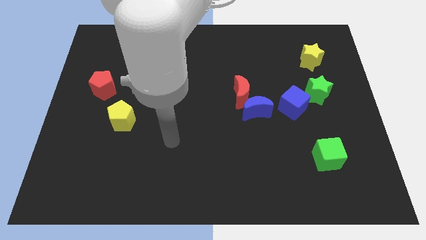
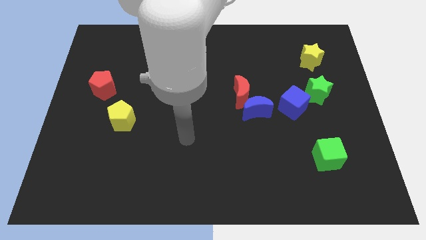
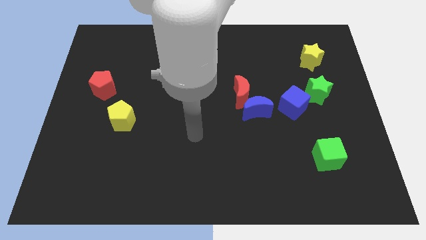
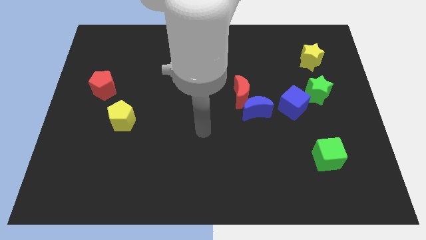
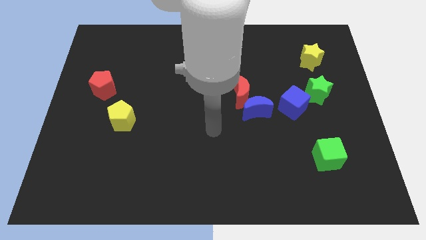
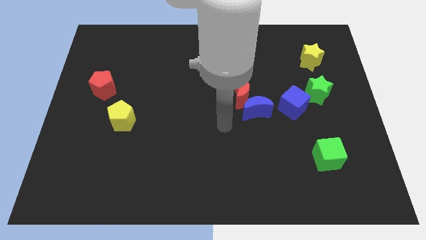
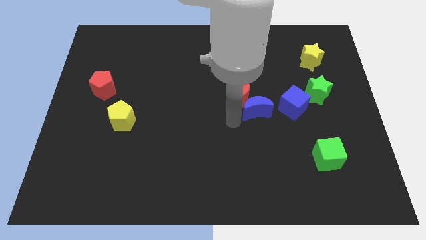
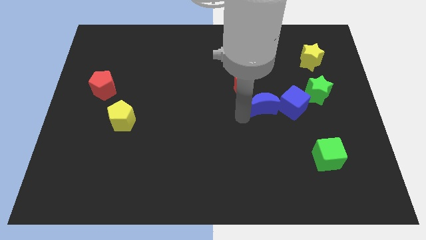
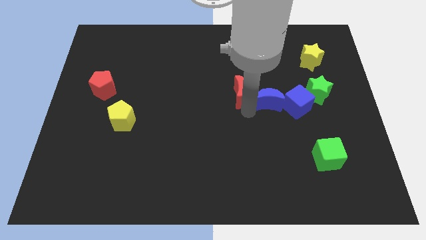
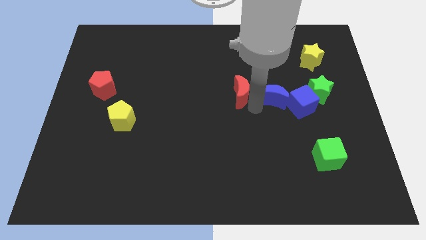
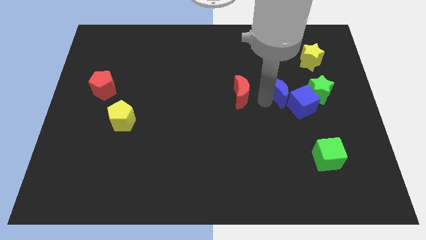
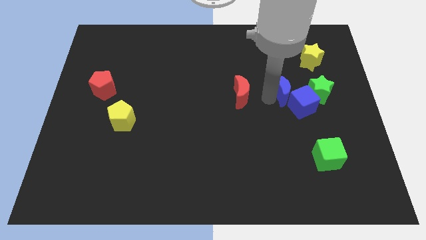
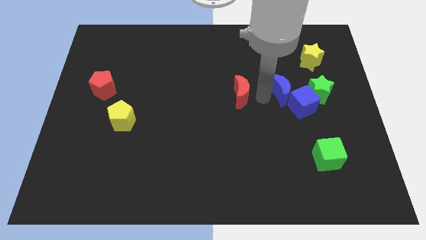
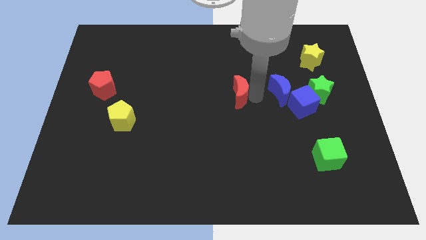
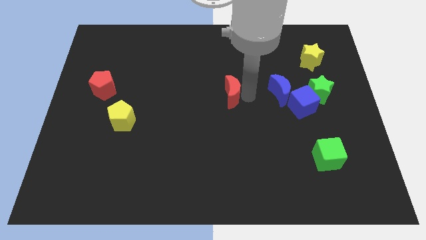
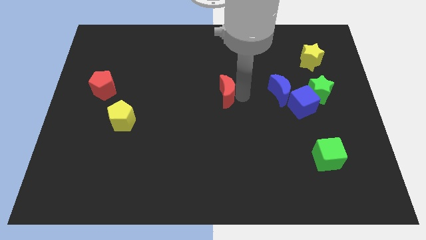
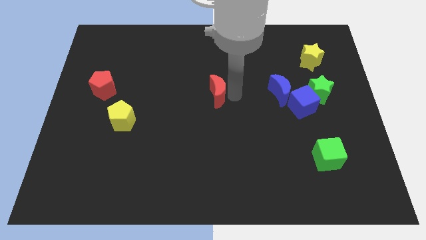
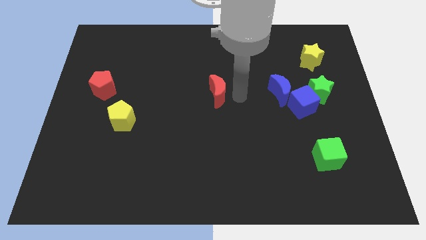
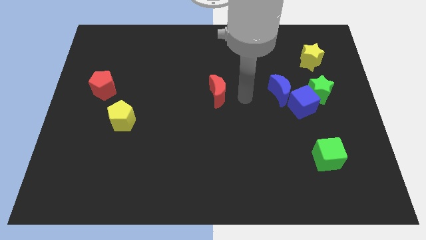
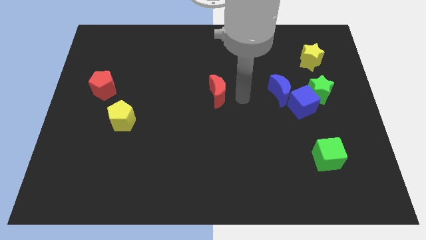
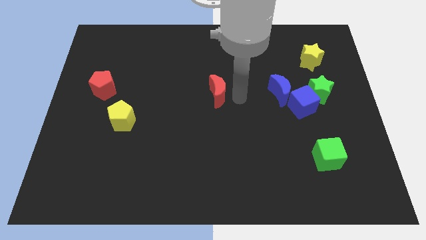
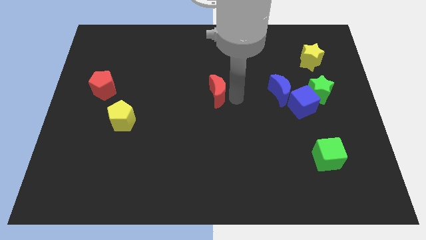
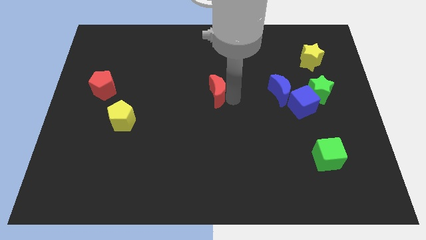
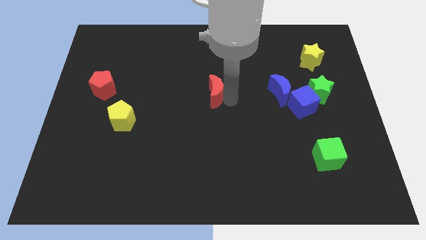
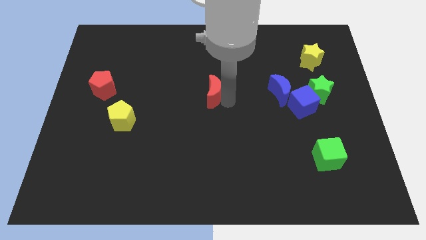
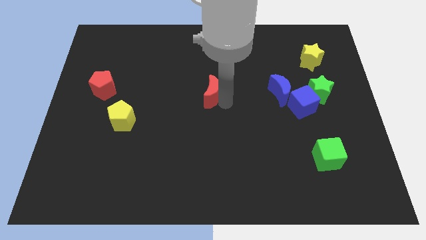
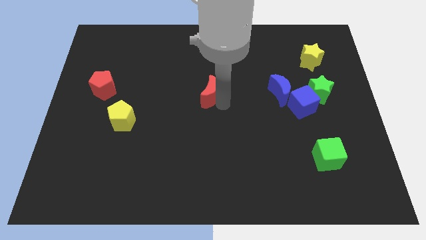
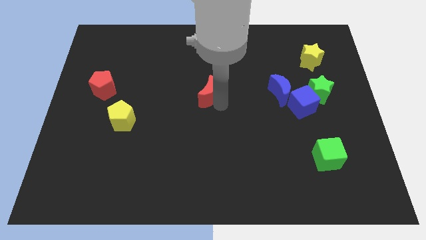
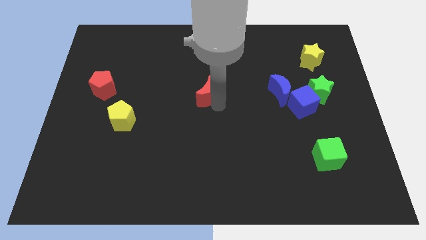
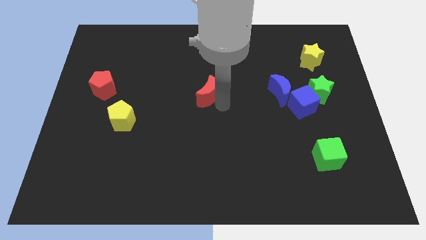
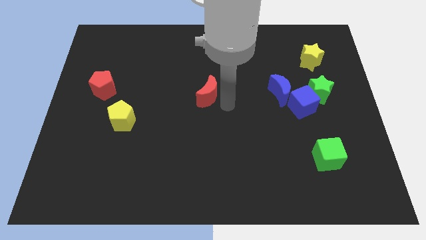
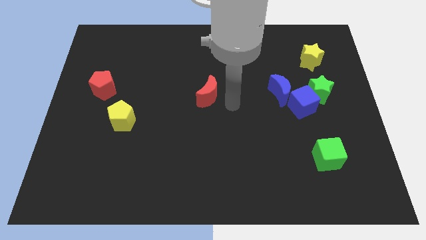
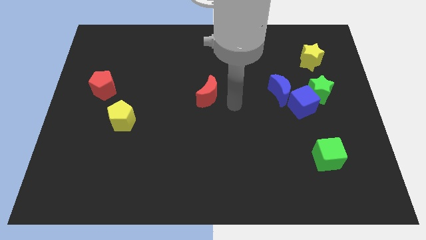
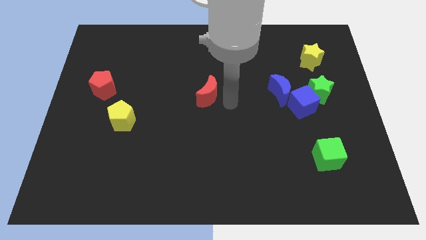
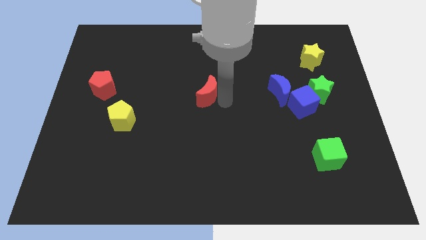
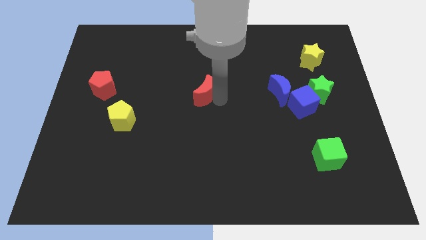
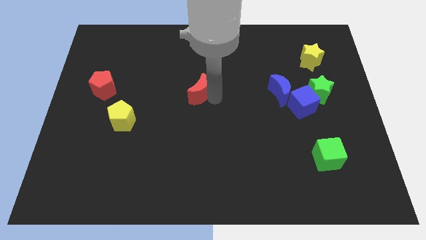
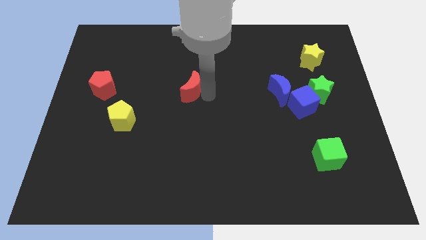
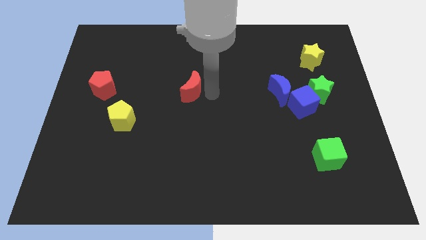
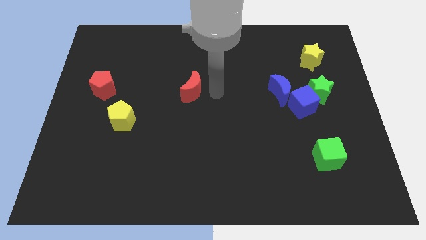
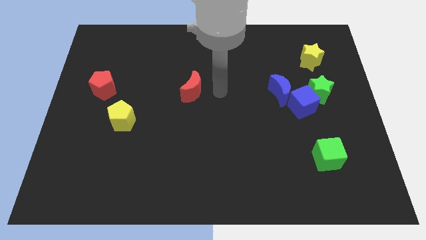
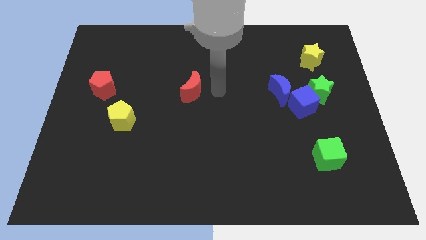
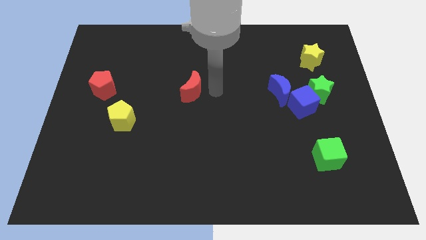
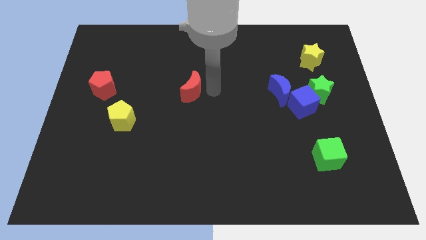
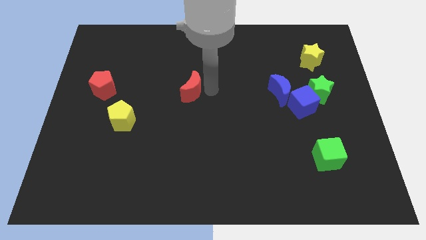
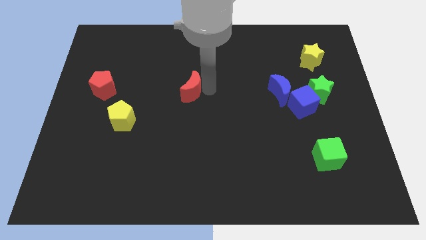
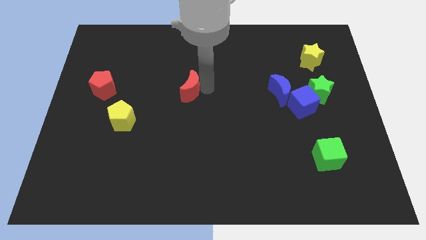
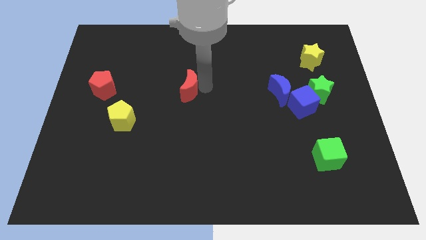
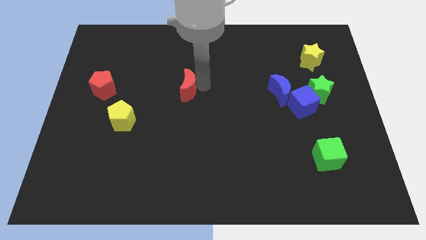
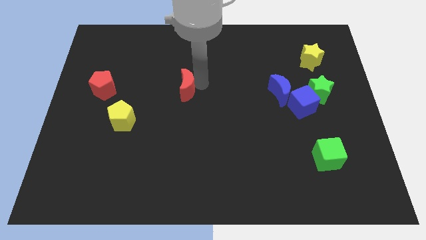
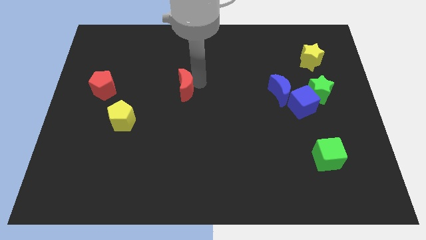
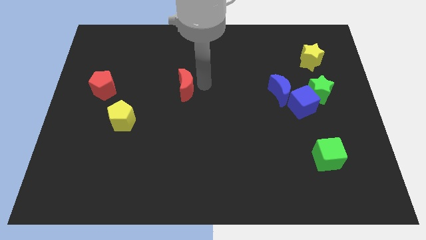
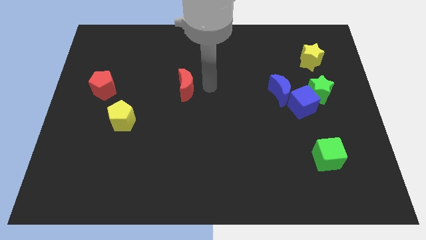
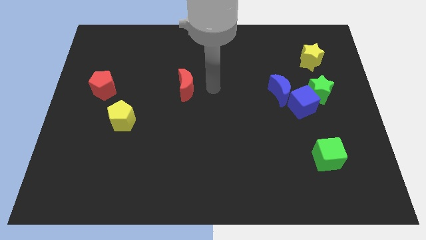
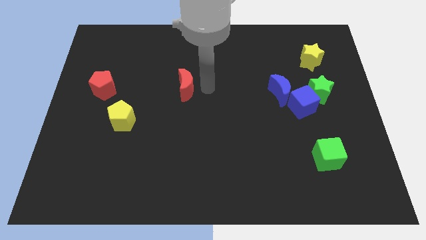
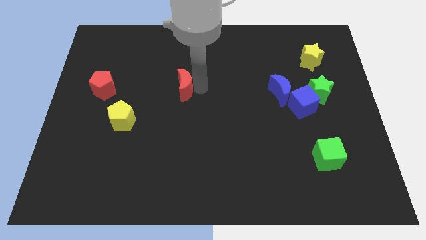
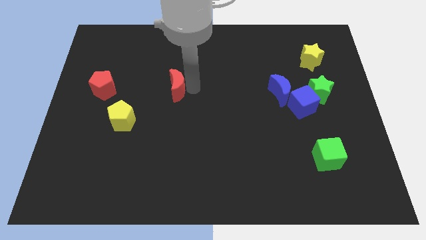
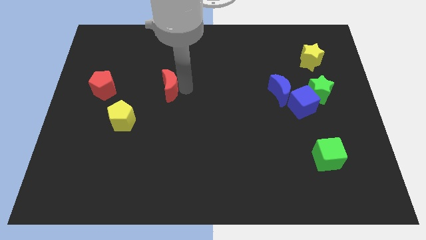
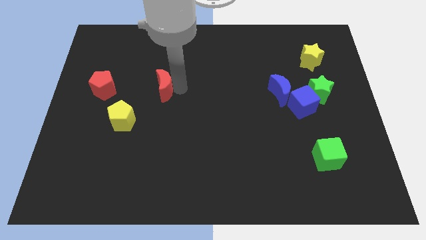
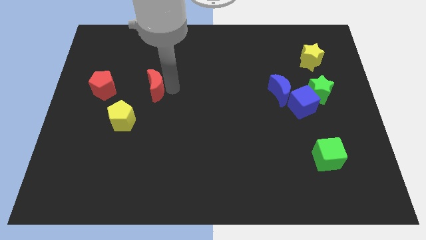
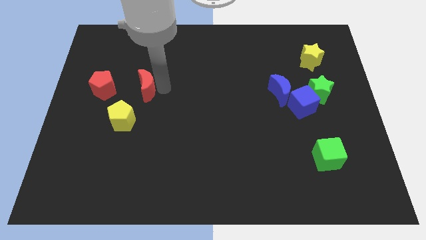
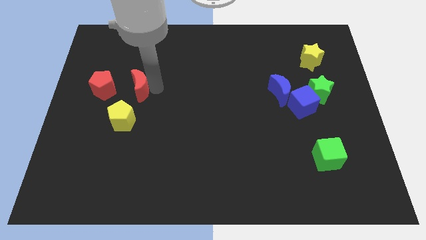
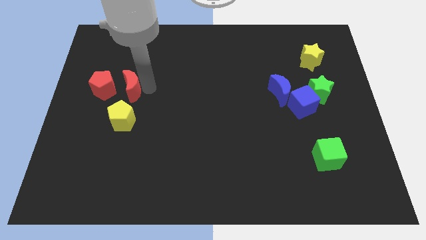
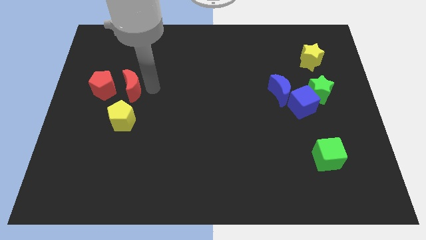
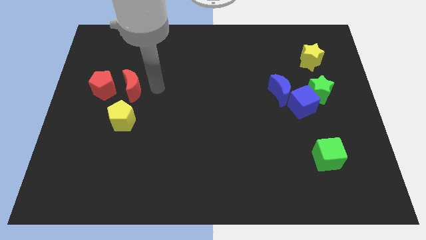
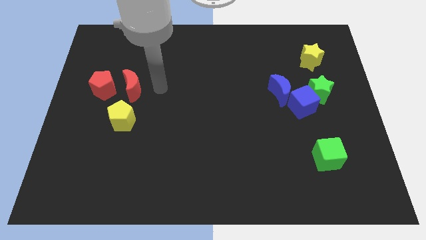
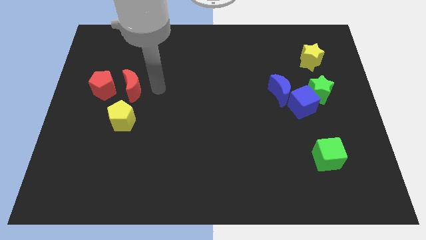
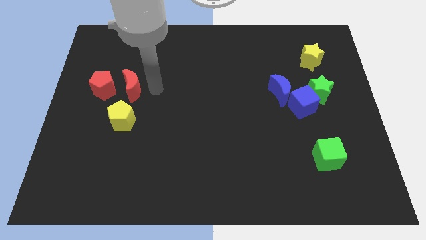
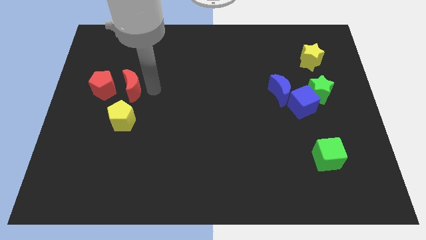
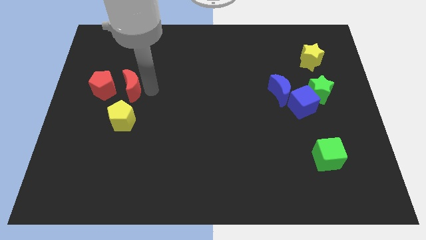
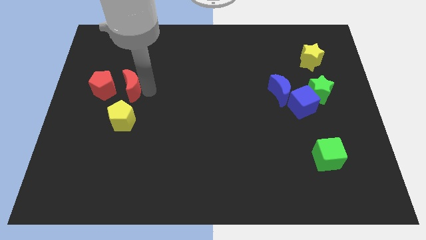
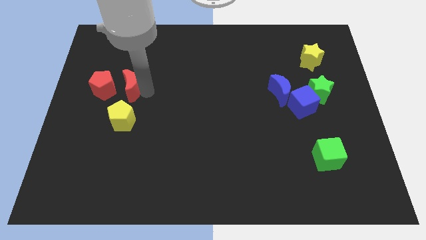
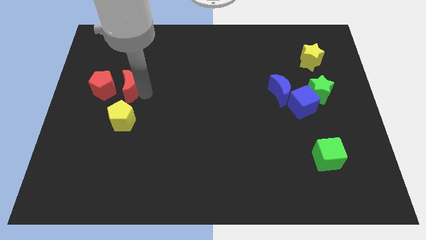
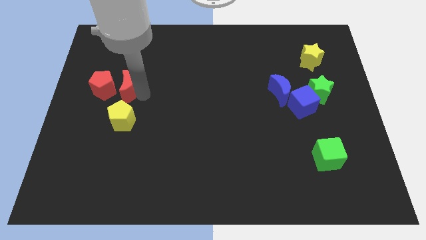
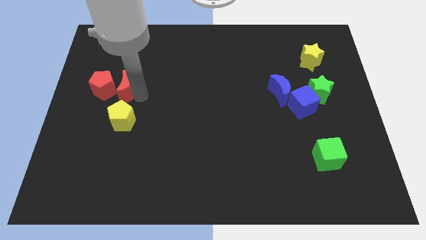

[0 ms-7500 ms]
move the red moon towards the red pentagon

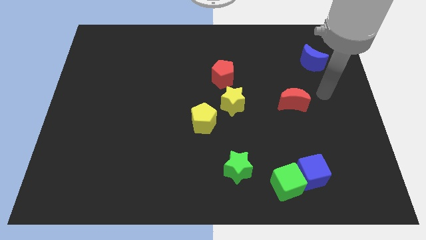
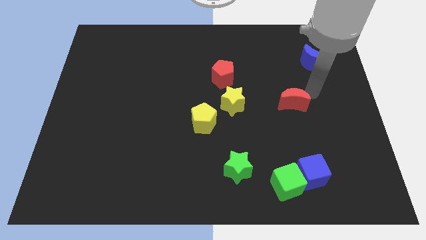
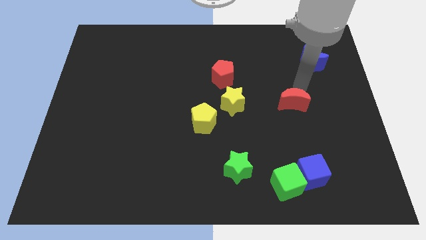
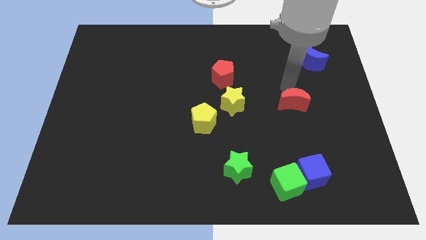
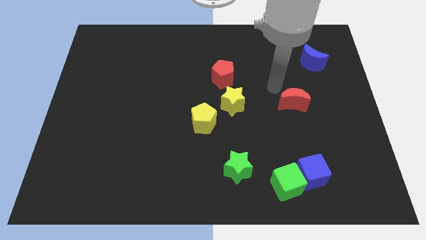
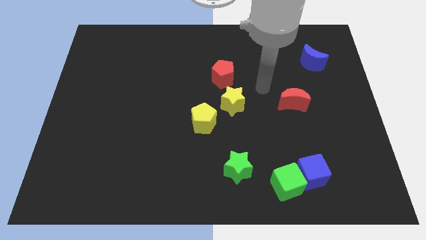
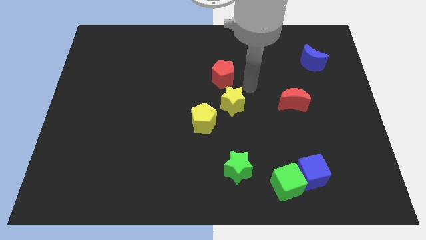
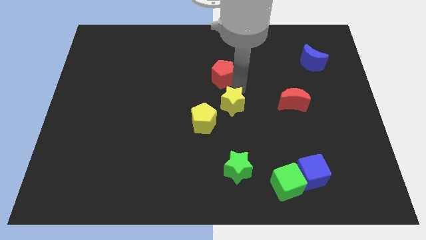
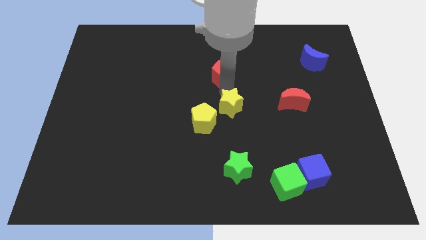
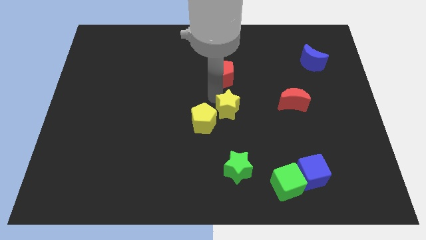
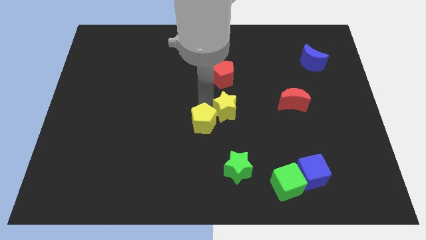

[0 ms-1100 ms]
put the yellow pentagon towards the yellow star
